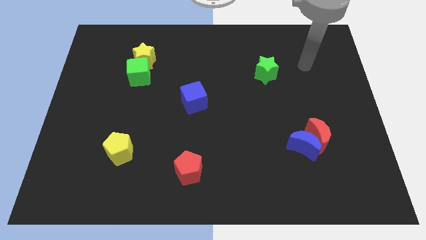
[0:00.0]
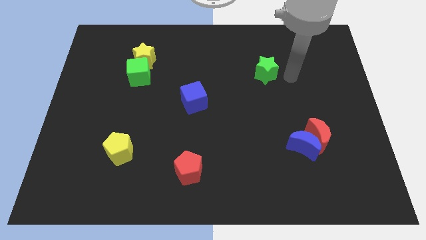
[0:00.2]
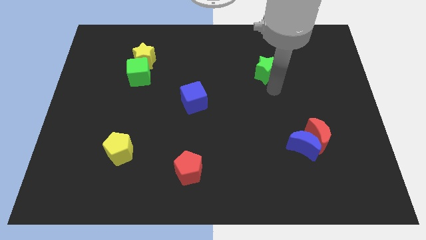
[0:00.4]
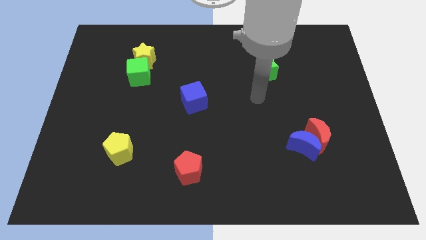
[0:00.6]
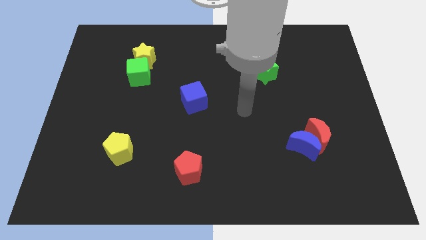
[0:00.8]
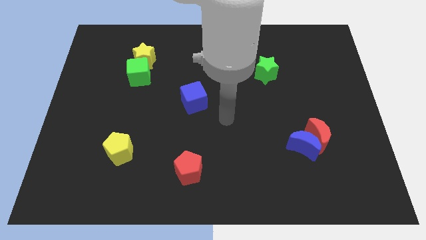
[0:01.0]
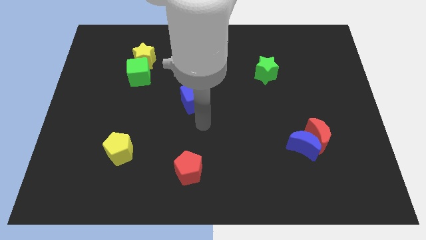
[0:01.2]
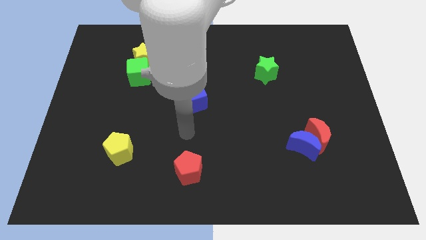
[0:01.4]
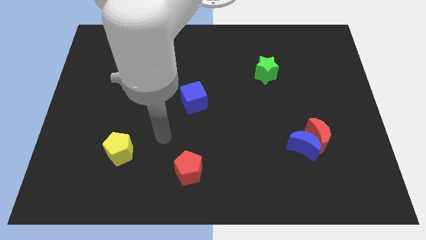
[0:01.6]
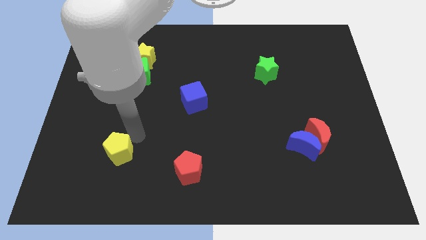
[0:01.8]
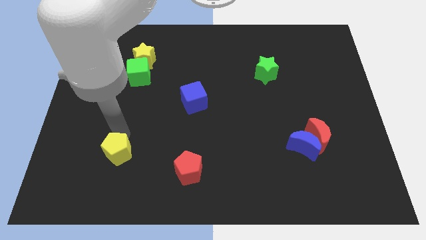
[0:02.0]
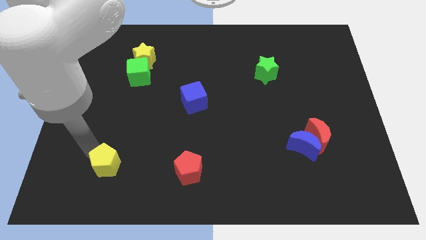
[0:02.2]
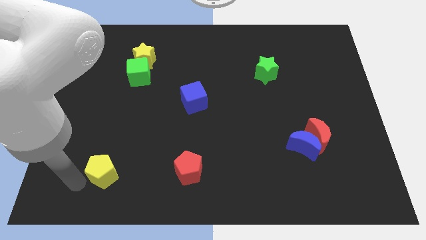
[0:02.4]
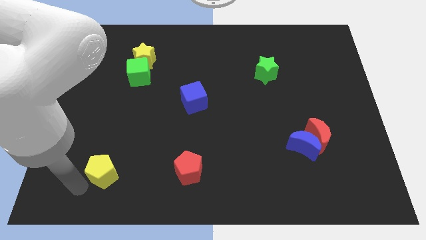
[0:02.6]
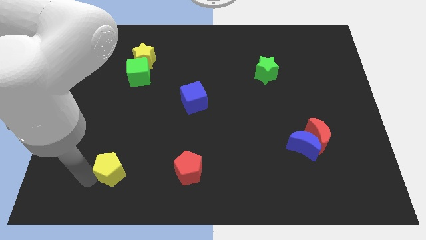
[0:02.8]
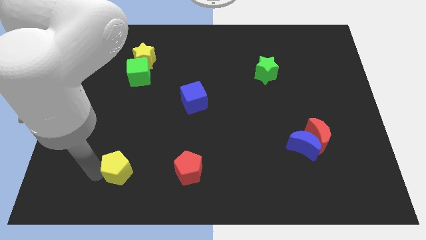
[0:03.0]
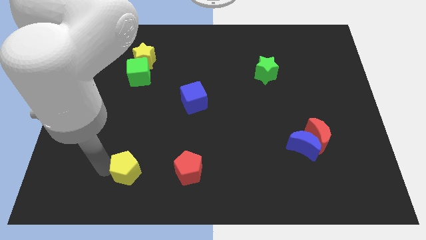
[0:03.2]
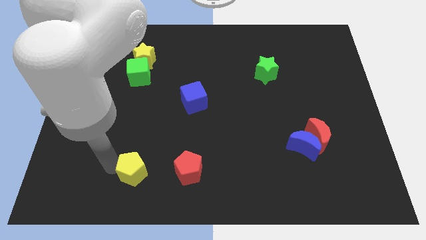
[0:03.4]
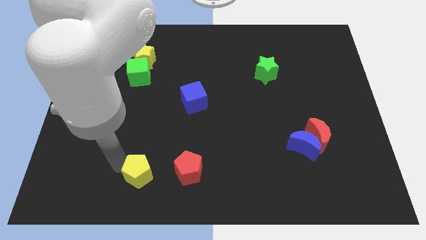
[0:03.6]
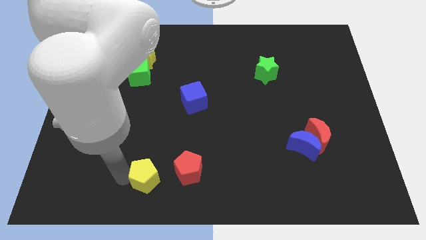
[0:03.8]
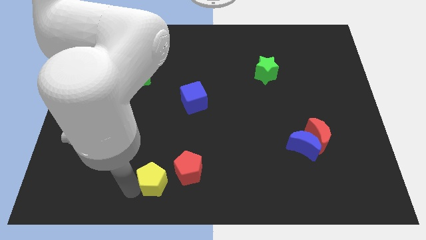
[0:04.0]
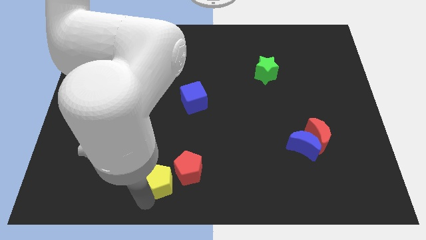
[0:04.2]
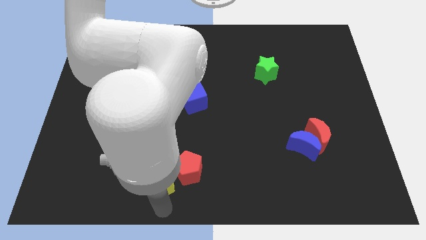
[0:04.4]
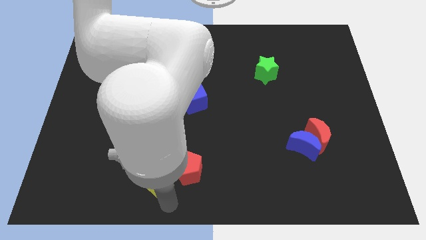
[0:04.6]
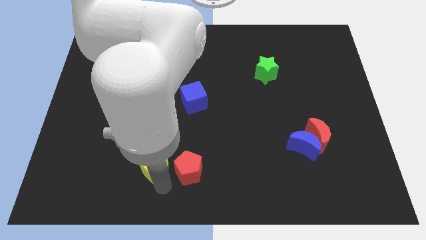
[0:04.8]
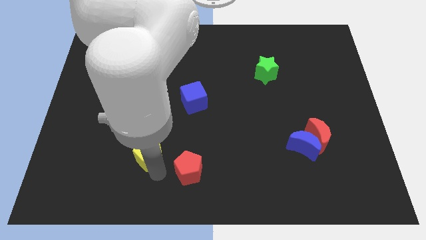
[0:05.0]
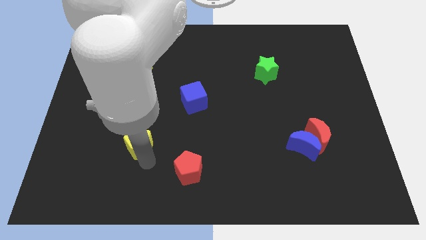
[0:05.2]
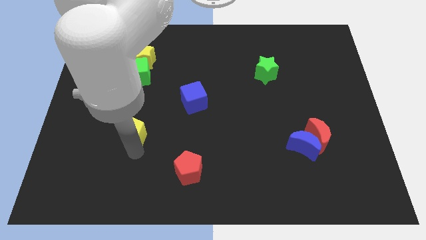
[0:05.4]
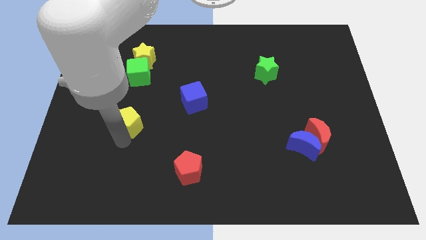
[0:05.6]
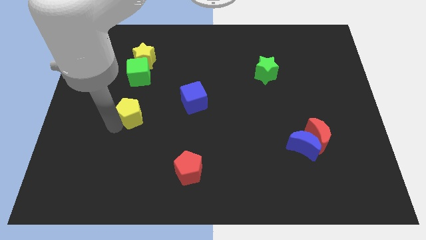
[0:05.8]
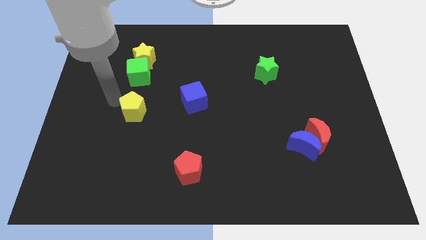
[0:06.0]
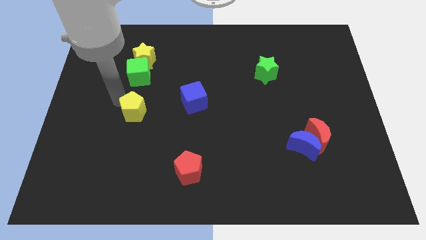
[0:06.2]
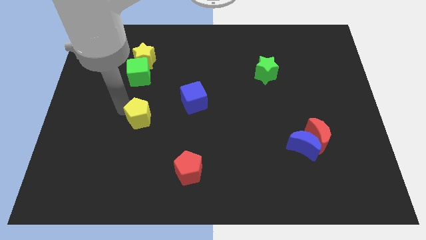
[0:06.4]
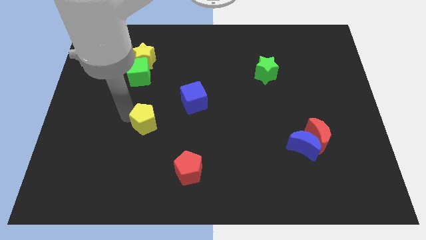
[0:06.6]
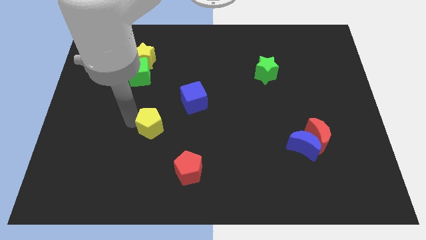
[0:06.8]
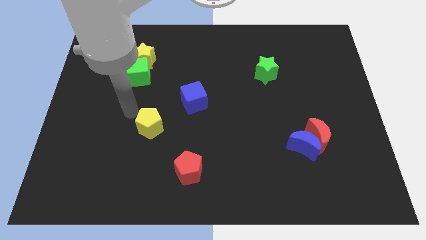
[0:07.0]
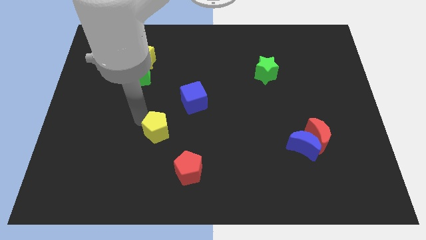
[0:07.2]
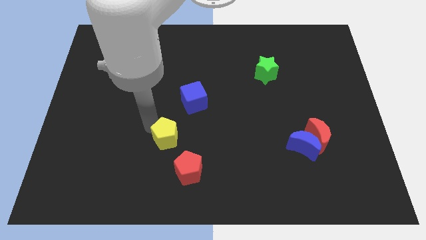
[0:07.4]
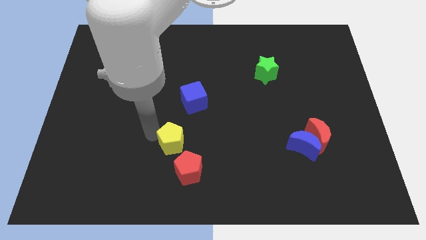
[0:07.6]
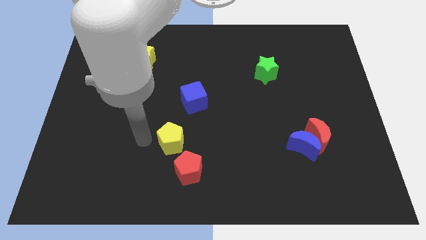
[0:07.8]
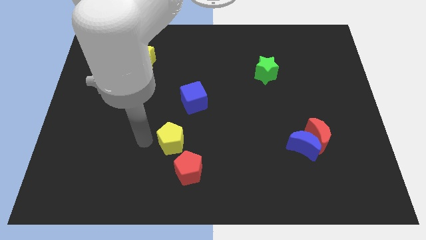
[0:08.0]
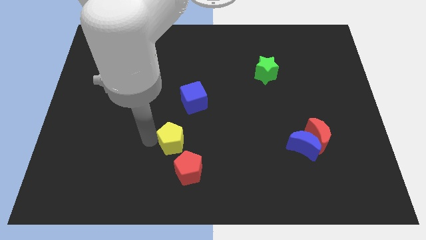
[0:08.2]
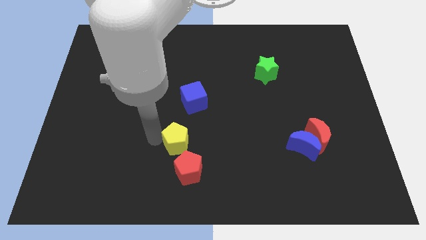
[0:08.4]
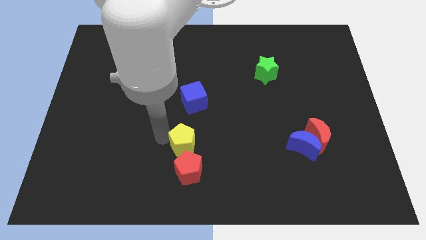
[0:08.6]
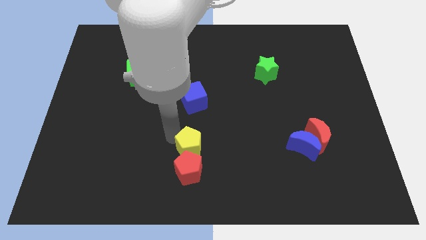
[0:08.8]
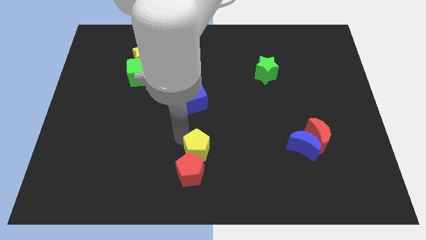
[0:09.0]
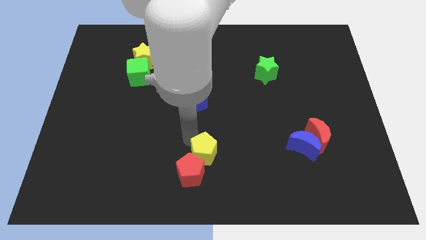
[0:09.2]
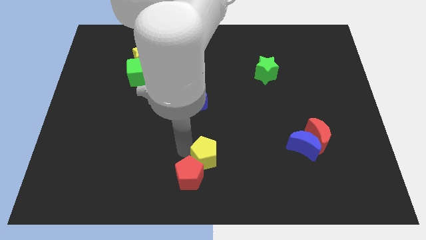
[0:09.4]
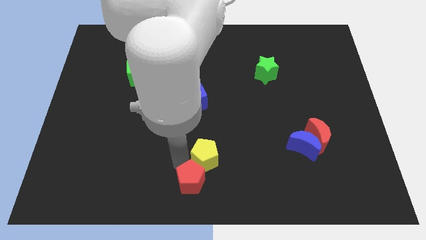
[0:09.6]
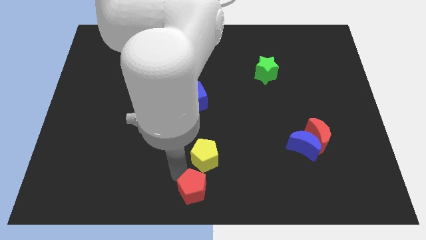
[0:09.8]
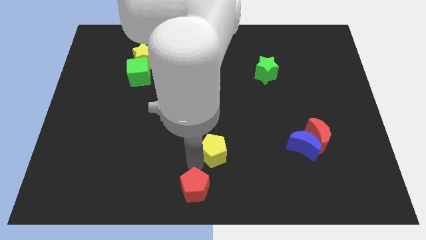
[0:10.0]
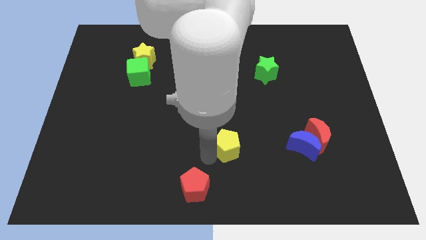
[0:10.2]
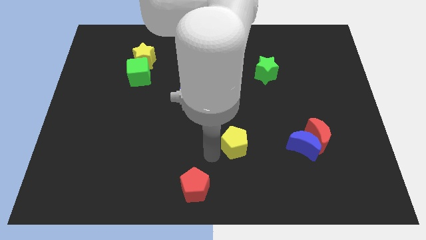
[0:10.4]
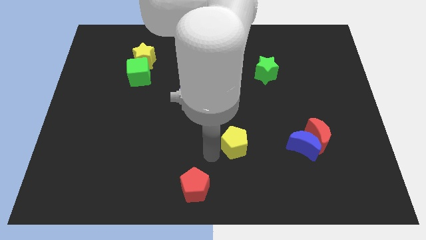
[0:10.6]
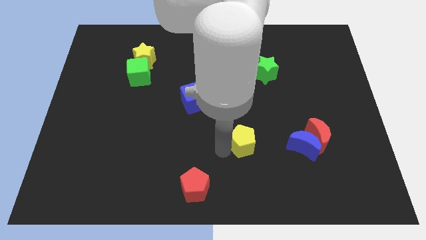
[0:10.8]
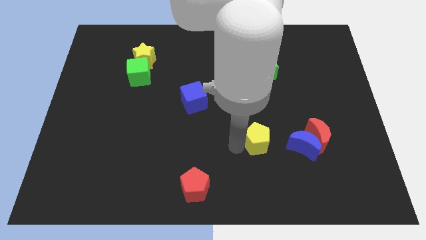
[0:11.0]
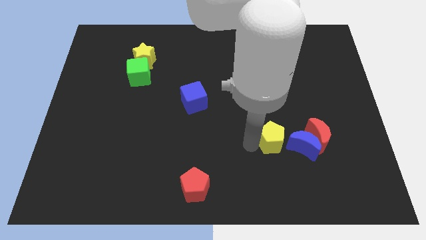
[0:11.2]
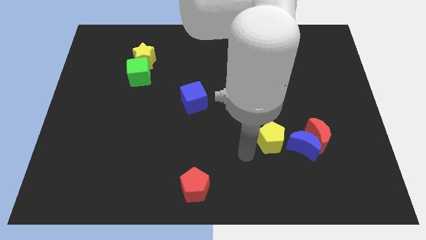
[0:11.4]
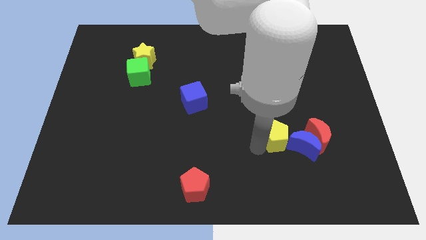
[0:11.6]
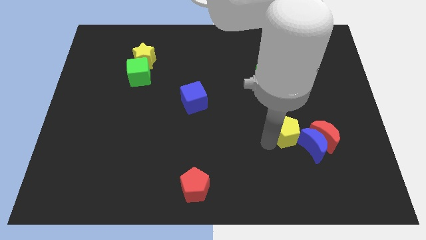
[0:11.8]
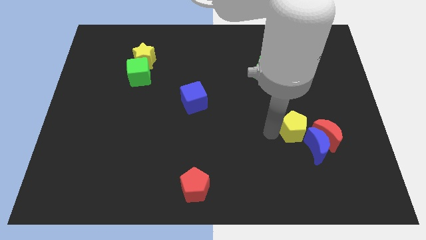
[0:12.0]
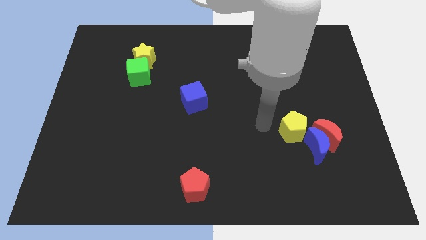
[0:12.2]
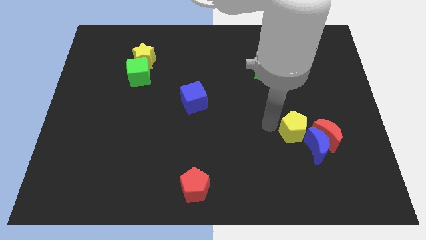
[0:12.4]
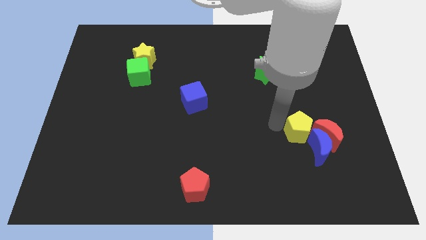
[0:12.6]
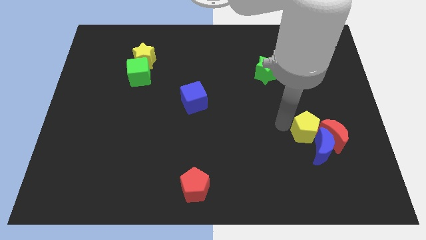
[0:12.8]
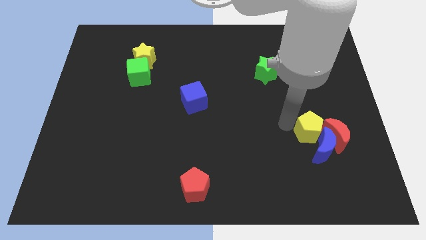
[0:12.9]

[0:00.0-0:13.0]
slide the yellow pentagon to the red moon

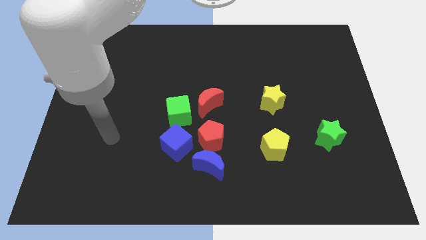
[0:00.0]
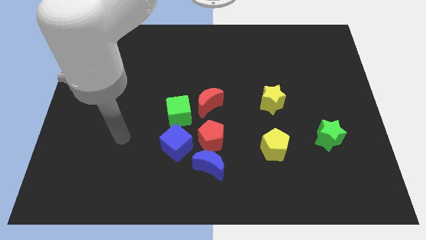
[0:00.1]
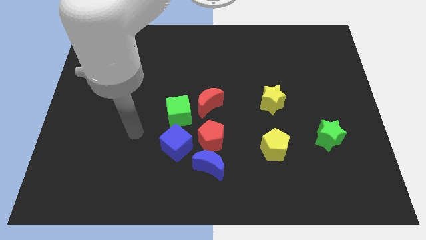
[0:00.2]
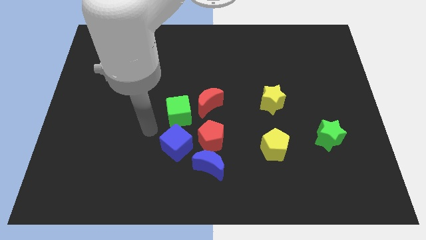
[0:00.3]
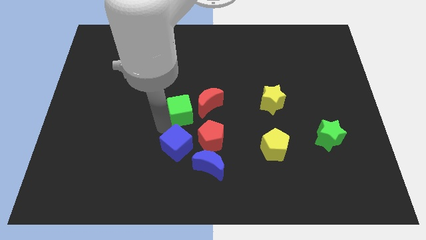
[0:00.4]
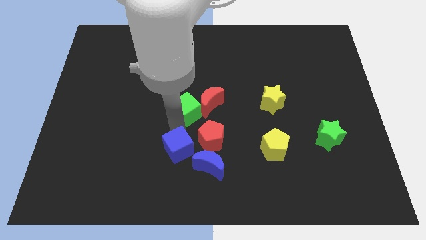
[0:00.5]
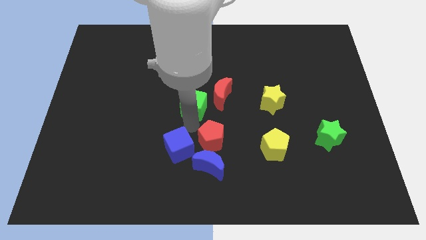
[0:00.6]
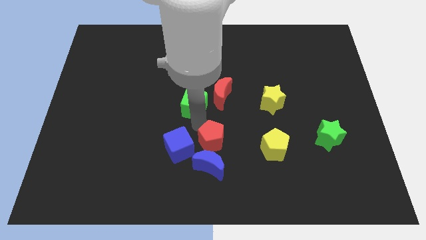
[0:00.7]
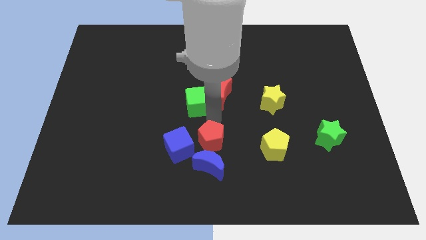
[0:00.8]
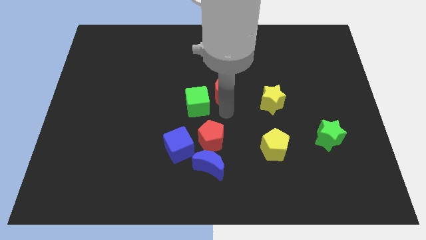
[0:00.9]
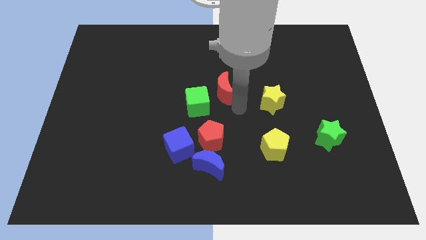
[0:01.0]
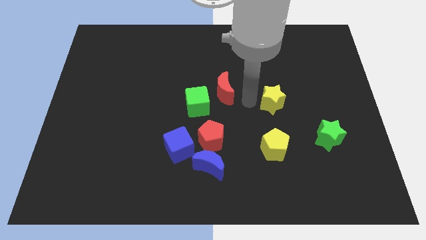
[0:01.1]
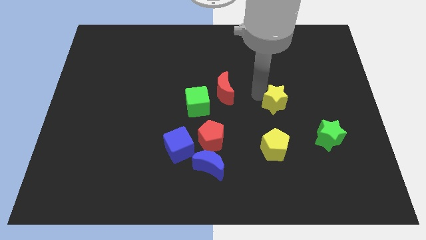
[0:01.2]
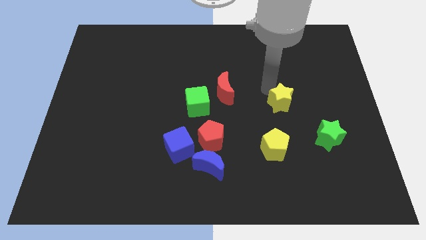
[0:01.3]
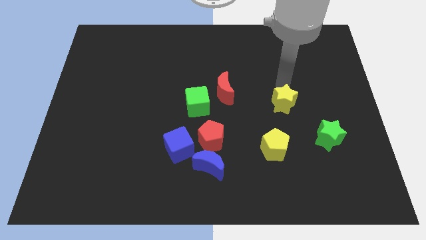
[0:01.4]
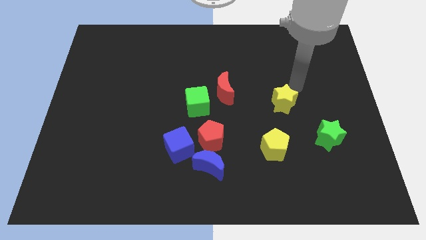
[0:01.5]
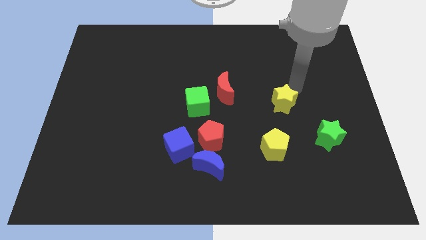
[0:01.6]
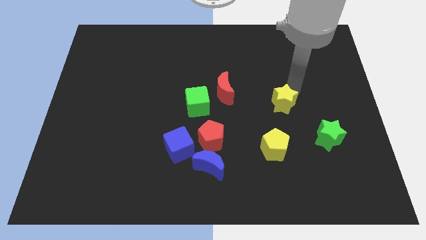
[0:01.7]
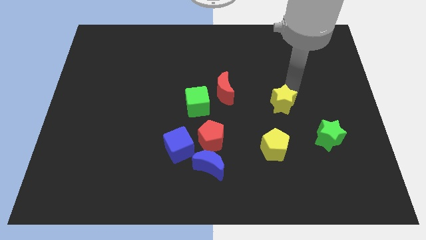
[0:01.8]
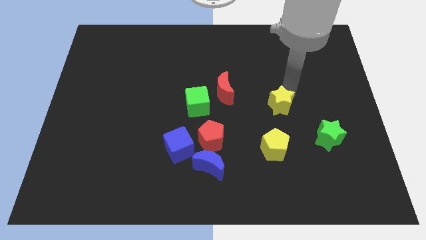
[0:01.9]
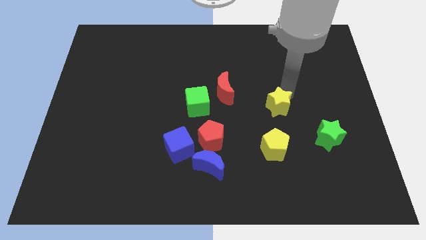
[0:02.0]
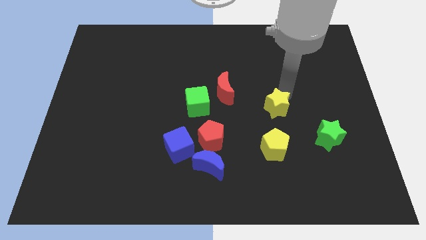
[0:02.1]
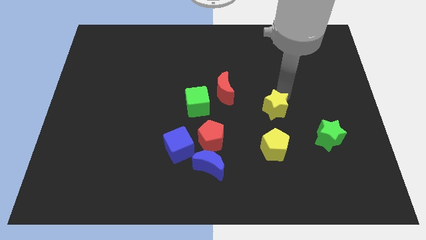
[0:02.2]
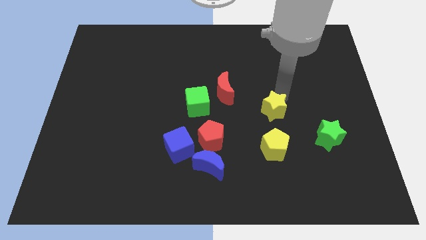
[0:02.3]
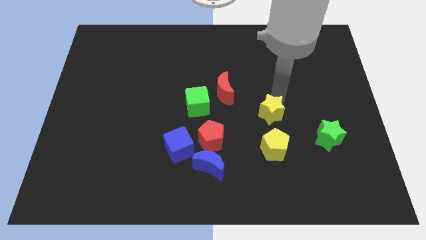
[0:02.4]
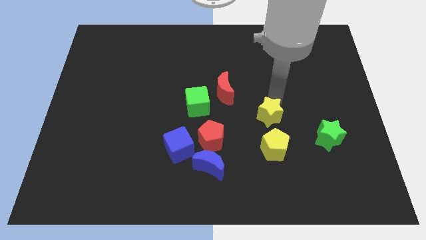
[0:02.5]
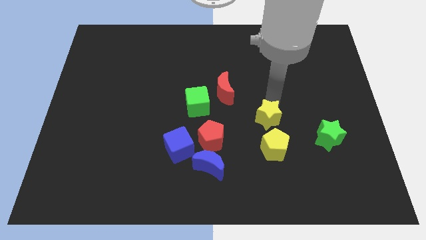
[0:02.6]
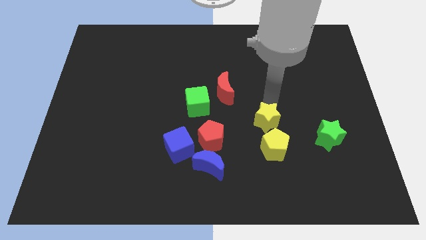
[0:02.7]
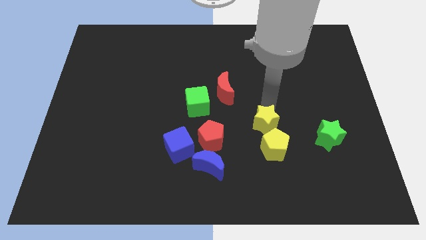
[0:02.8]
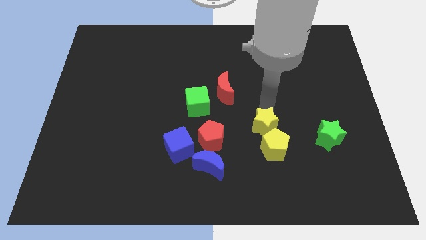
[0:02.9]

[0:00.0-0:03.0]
put the yellow star next to the yellow pentagon
